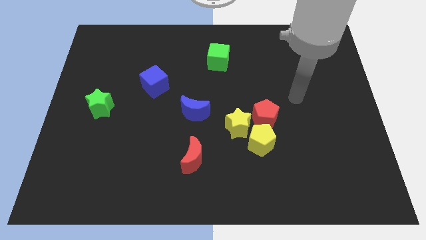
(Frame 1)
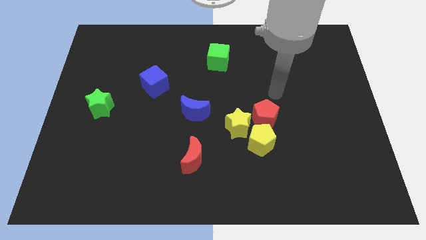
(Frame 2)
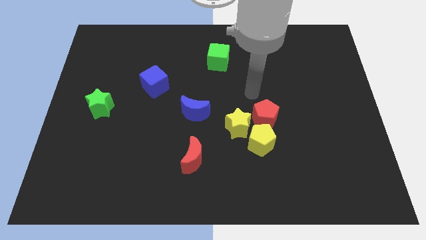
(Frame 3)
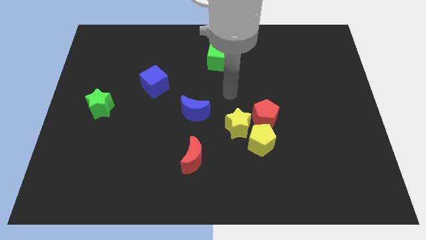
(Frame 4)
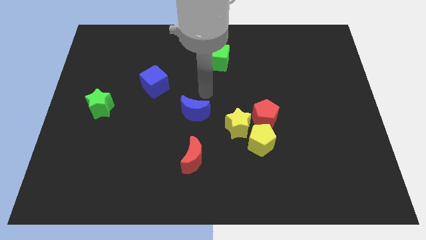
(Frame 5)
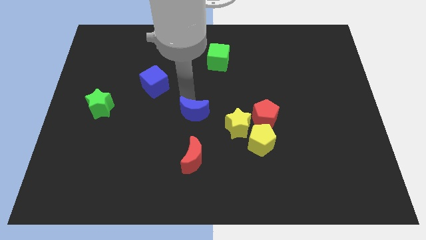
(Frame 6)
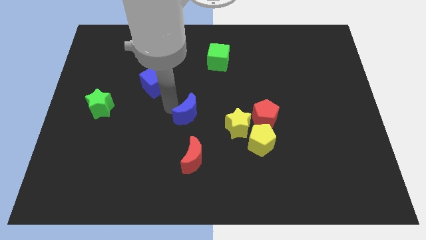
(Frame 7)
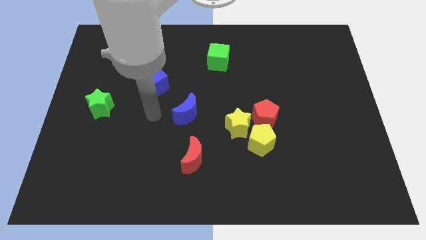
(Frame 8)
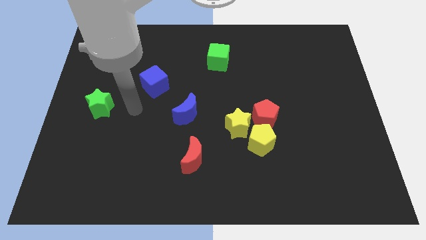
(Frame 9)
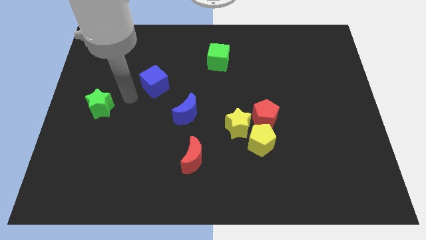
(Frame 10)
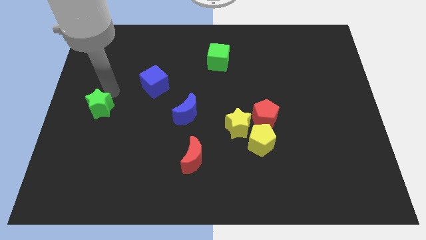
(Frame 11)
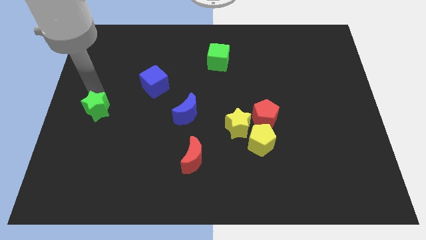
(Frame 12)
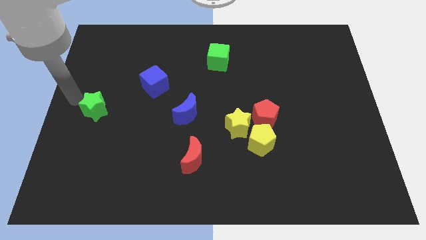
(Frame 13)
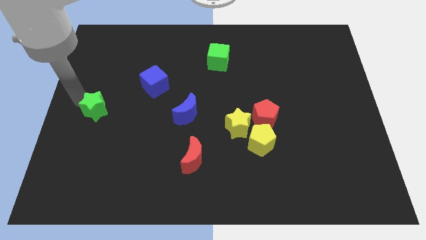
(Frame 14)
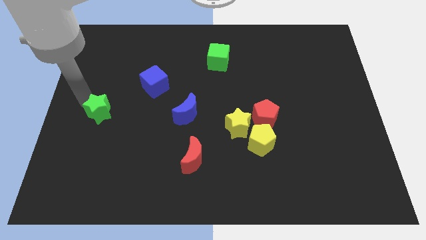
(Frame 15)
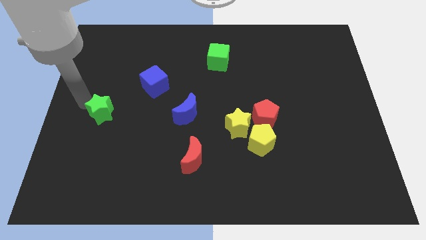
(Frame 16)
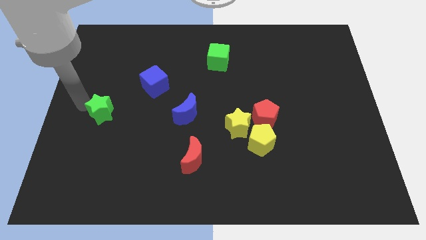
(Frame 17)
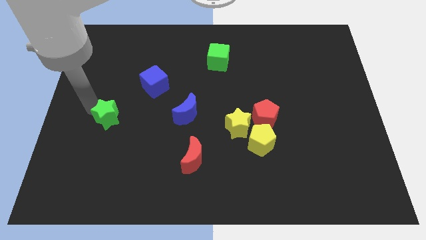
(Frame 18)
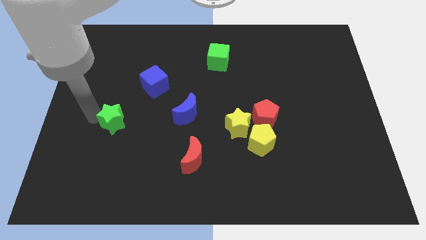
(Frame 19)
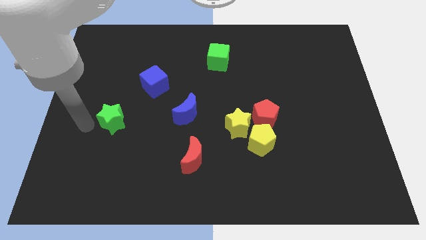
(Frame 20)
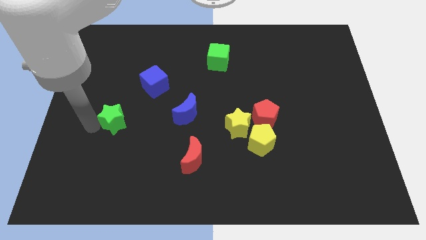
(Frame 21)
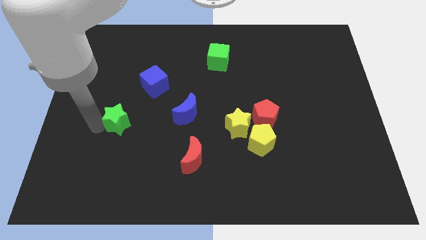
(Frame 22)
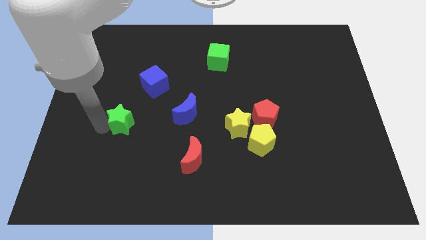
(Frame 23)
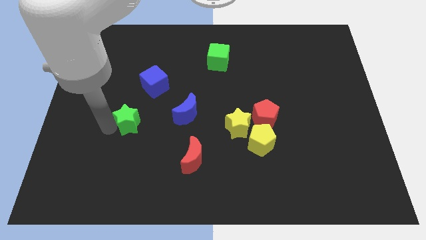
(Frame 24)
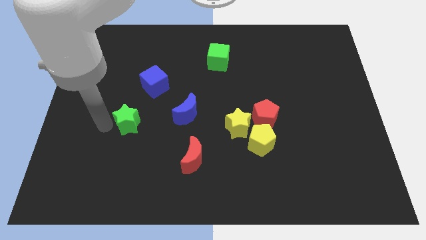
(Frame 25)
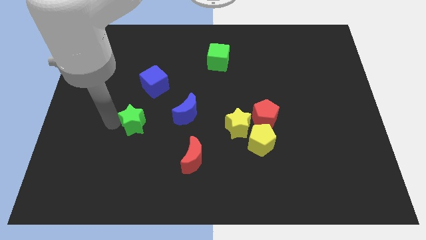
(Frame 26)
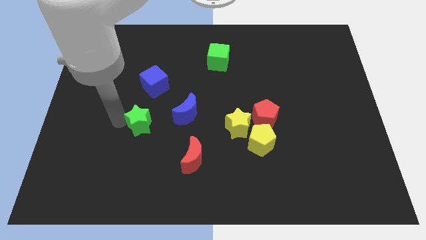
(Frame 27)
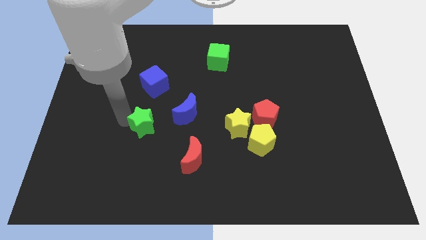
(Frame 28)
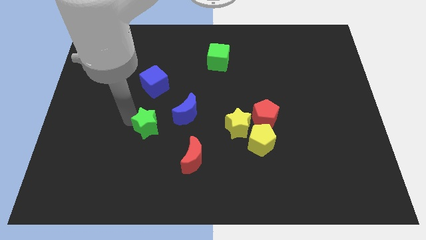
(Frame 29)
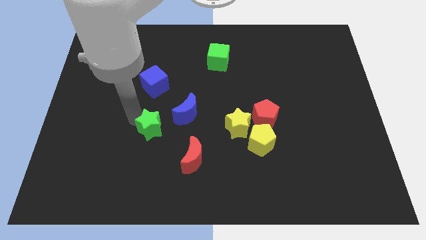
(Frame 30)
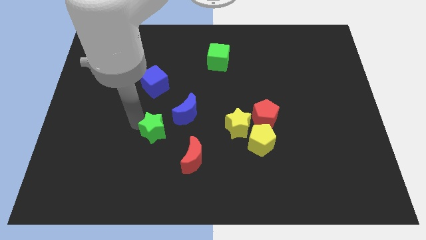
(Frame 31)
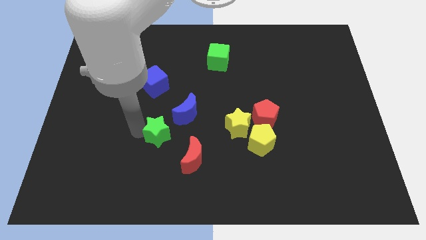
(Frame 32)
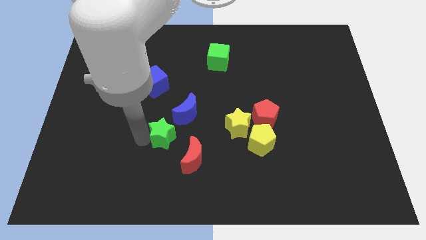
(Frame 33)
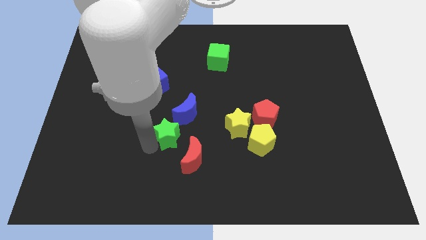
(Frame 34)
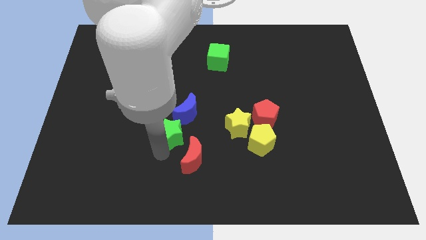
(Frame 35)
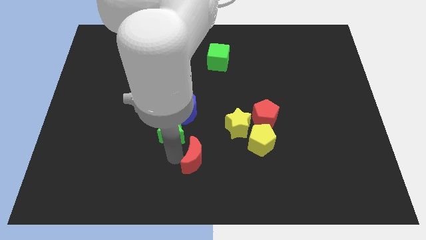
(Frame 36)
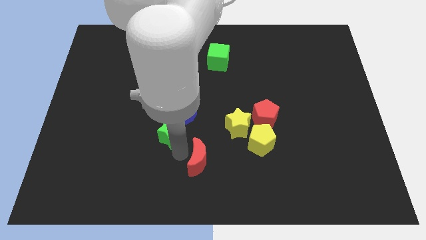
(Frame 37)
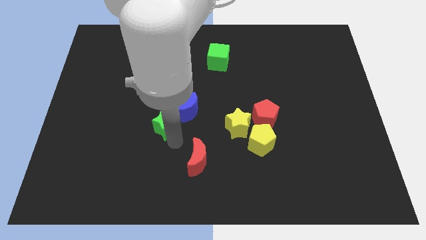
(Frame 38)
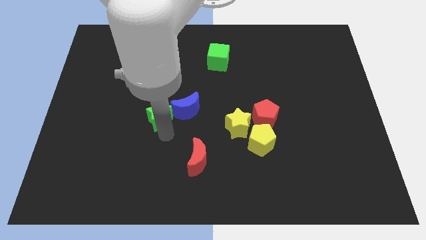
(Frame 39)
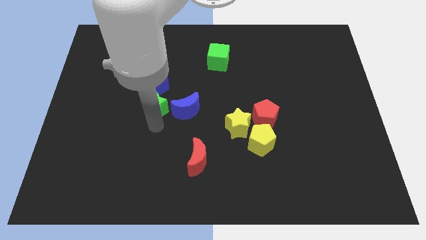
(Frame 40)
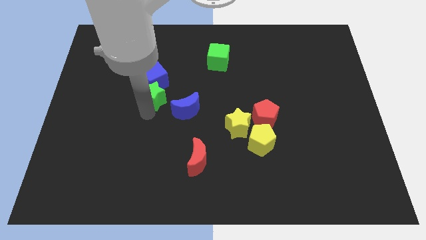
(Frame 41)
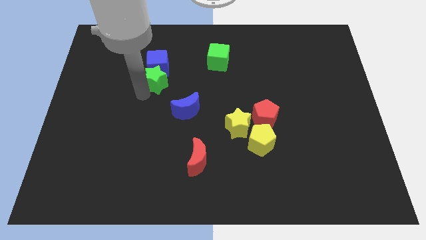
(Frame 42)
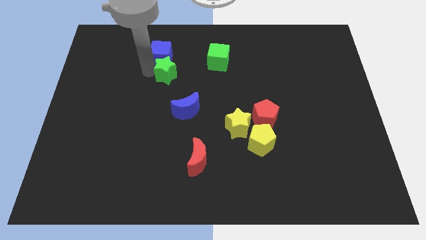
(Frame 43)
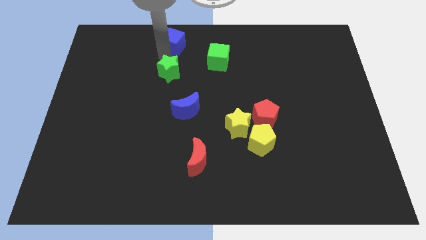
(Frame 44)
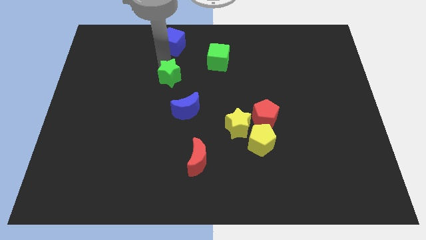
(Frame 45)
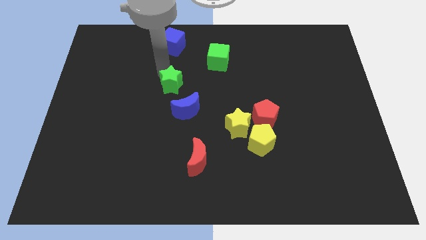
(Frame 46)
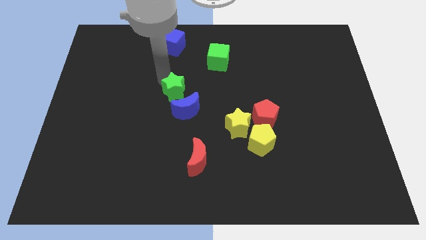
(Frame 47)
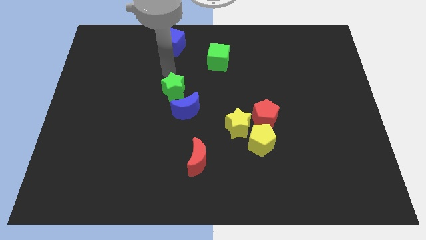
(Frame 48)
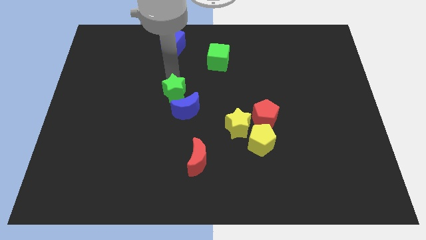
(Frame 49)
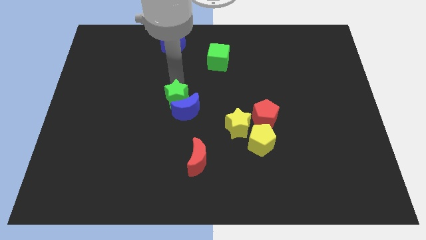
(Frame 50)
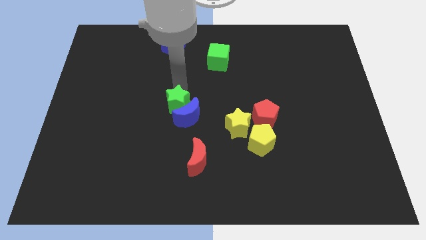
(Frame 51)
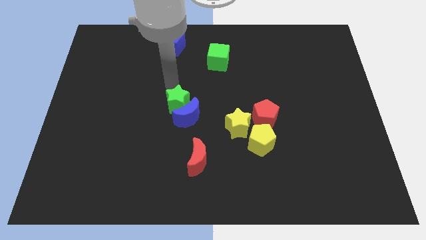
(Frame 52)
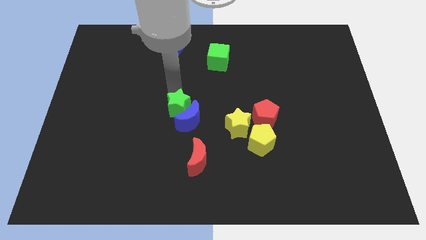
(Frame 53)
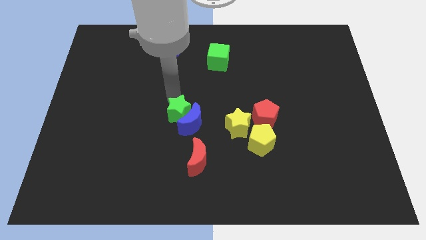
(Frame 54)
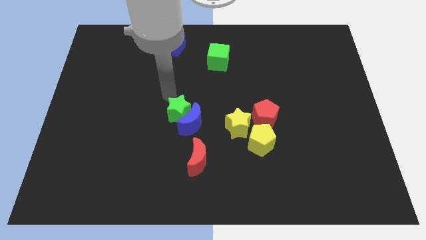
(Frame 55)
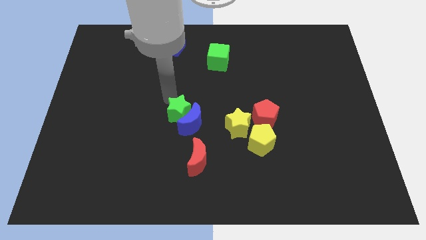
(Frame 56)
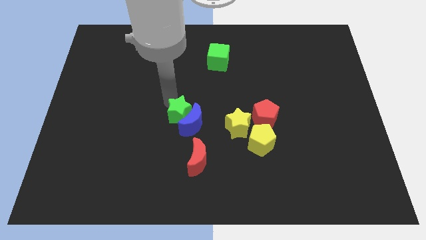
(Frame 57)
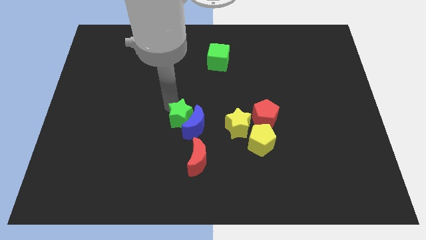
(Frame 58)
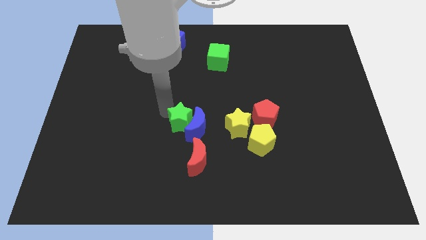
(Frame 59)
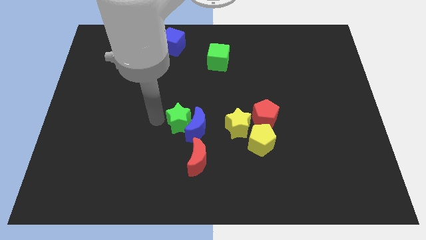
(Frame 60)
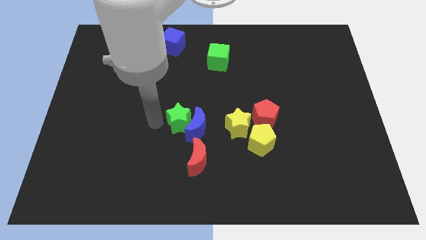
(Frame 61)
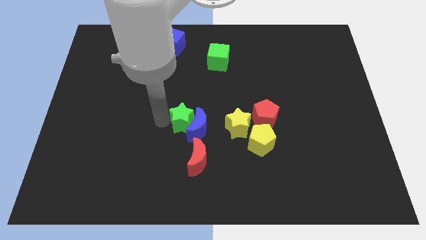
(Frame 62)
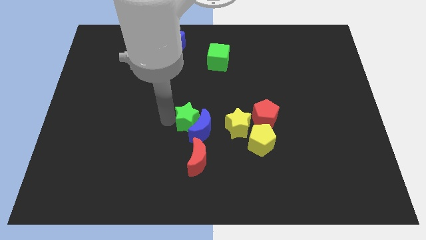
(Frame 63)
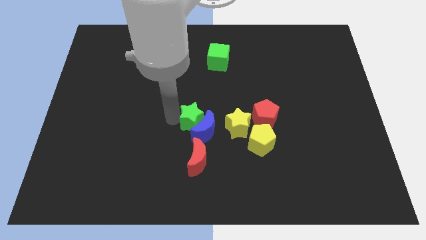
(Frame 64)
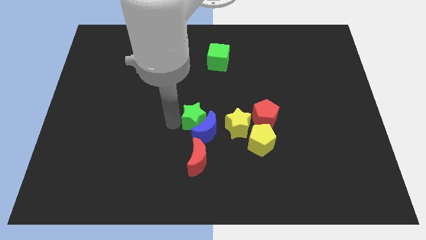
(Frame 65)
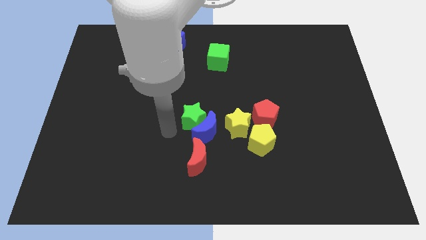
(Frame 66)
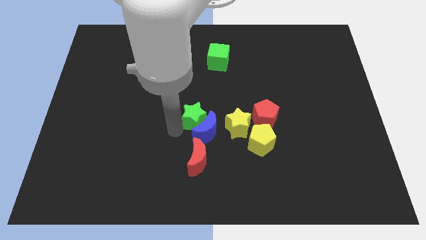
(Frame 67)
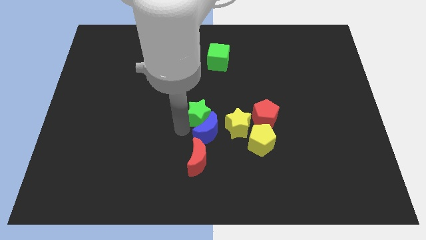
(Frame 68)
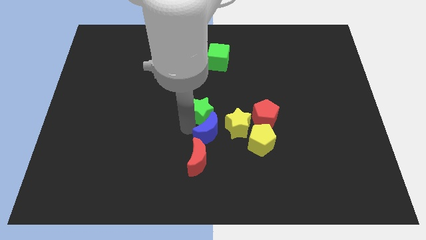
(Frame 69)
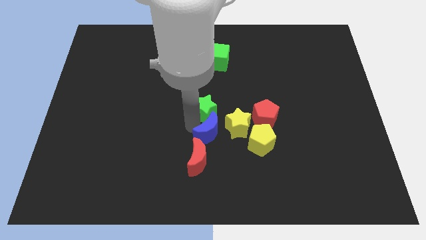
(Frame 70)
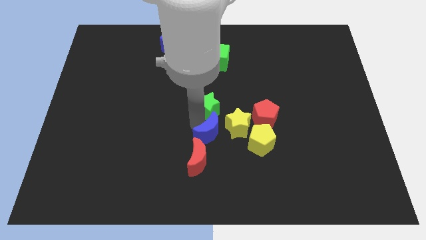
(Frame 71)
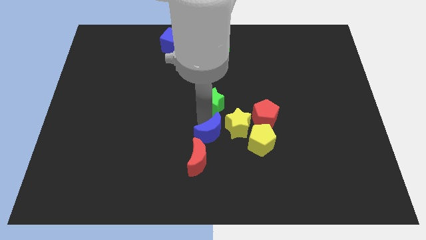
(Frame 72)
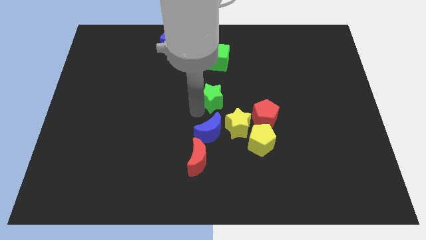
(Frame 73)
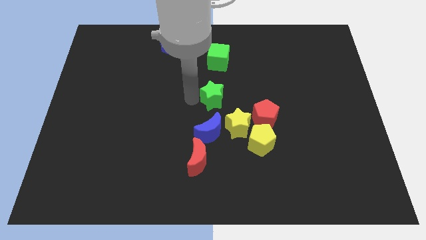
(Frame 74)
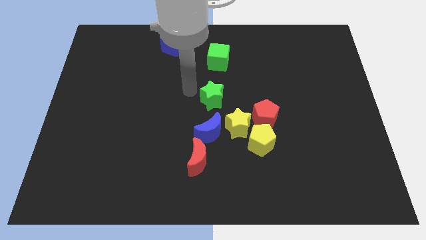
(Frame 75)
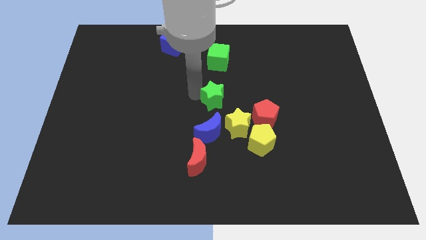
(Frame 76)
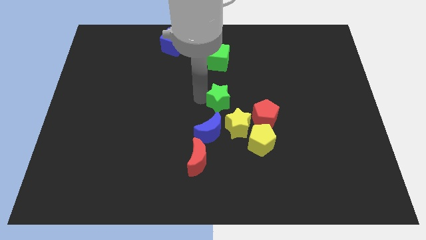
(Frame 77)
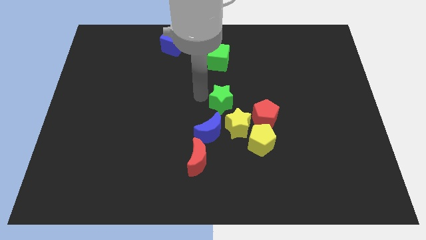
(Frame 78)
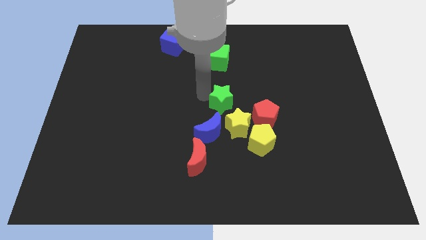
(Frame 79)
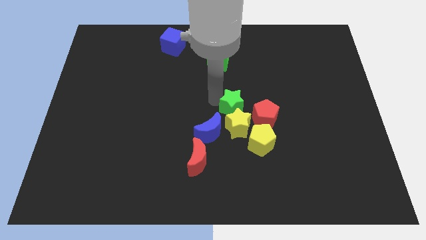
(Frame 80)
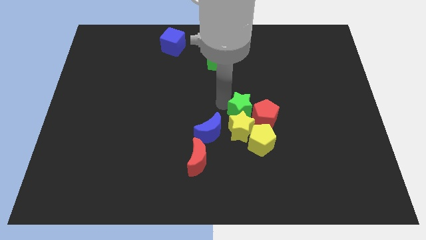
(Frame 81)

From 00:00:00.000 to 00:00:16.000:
move the green star next to the red pentagon
